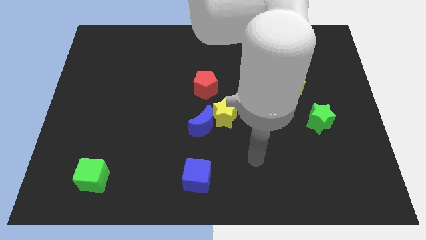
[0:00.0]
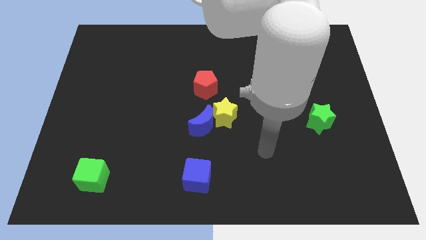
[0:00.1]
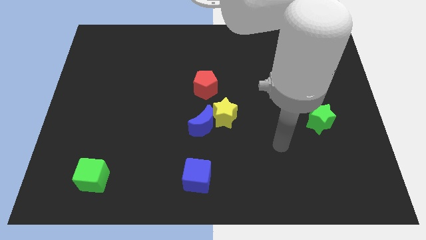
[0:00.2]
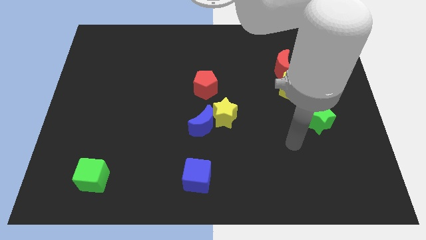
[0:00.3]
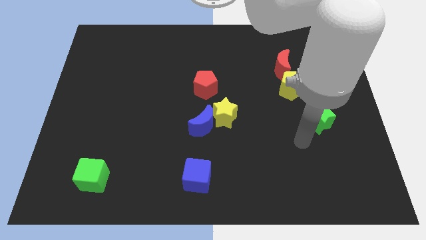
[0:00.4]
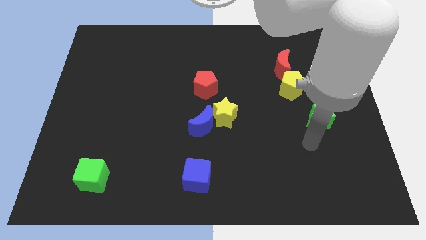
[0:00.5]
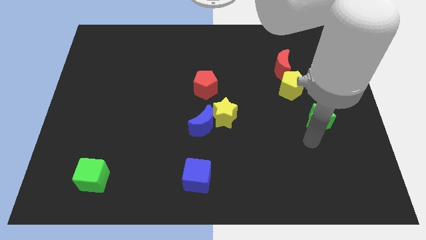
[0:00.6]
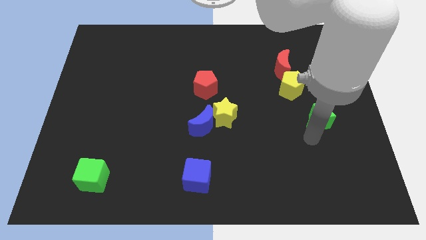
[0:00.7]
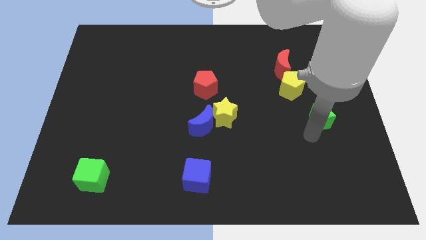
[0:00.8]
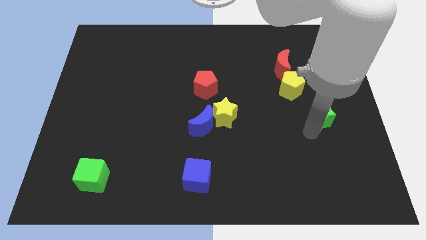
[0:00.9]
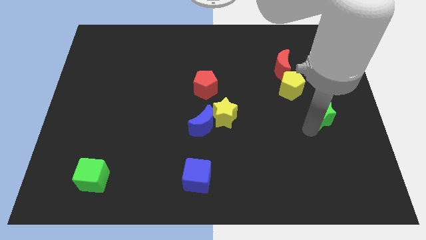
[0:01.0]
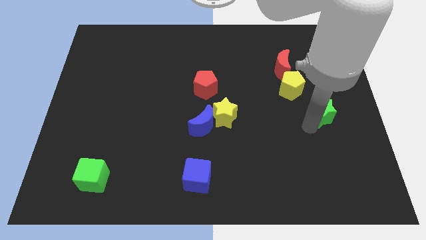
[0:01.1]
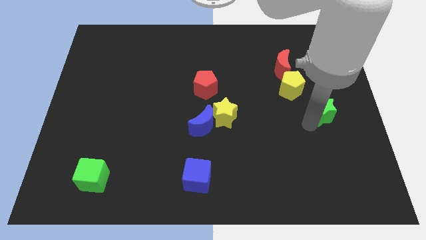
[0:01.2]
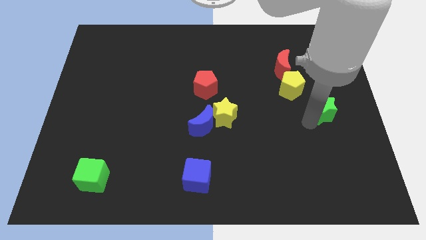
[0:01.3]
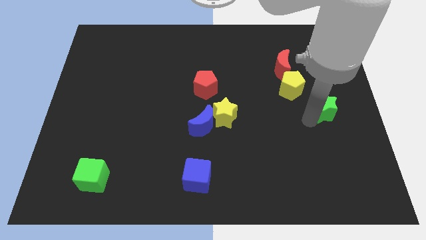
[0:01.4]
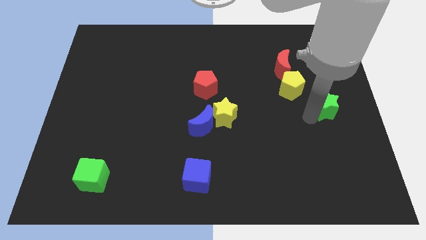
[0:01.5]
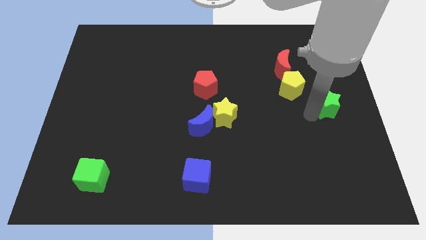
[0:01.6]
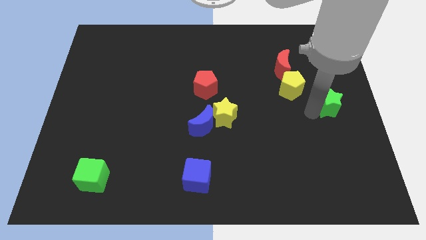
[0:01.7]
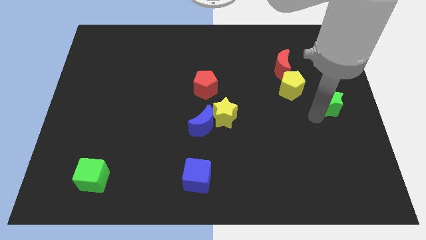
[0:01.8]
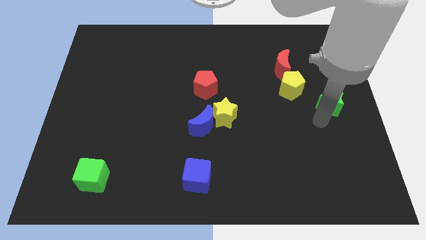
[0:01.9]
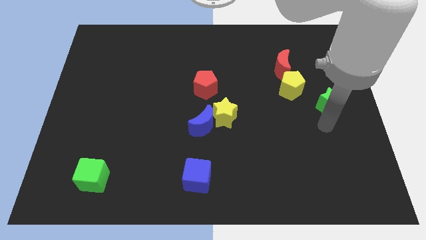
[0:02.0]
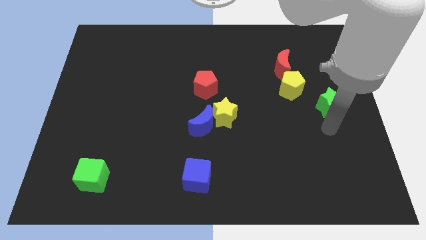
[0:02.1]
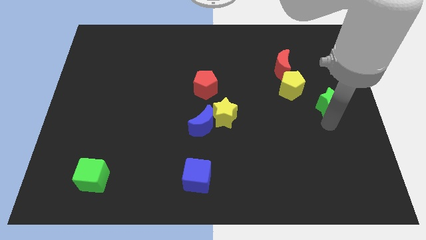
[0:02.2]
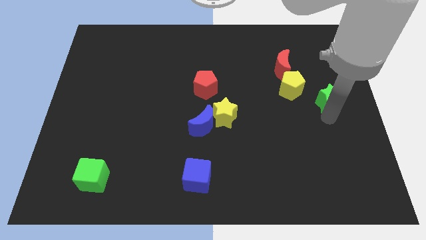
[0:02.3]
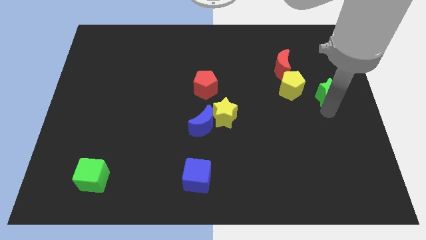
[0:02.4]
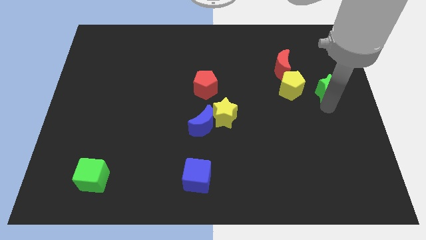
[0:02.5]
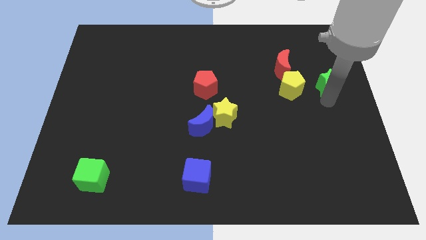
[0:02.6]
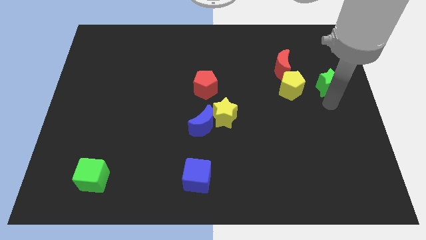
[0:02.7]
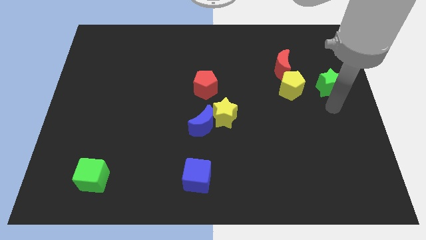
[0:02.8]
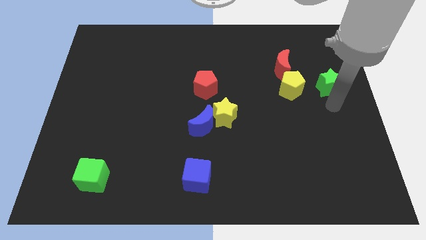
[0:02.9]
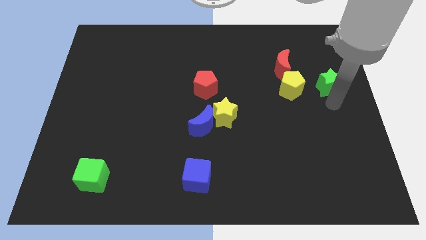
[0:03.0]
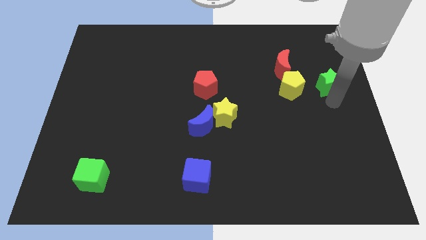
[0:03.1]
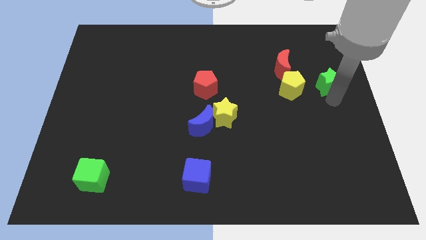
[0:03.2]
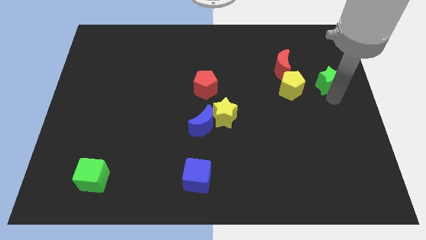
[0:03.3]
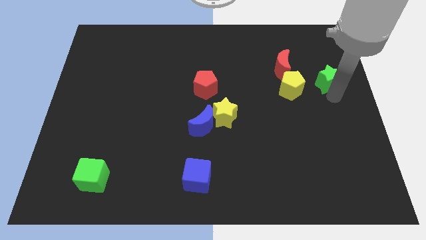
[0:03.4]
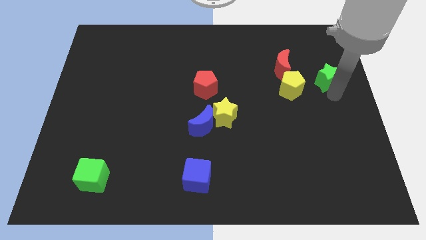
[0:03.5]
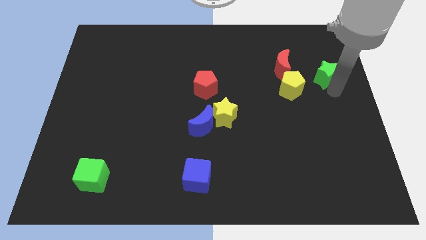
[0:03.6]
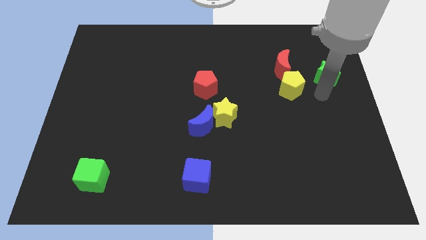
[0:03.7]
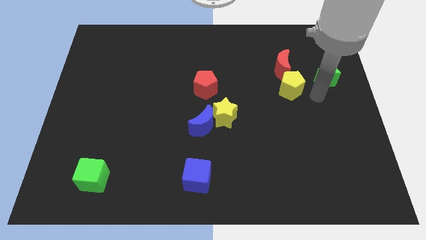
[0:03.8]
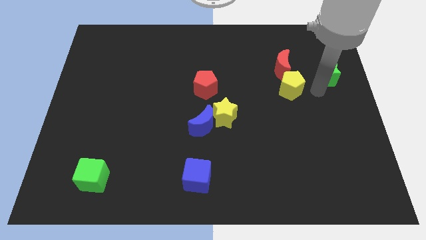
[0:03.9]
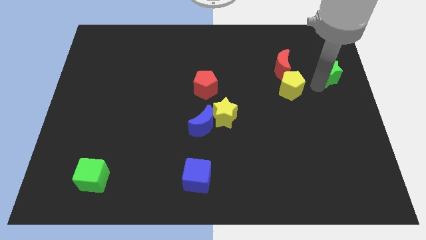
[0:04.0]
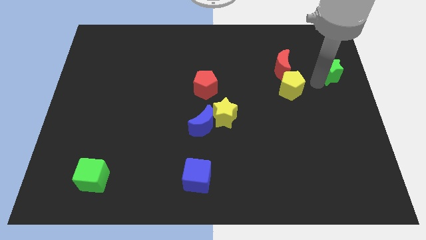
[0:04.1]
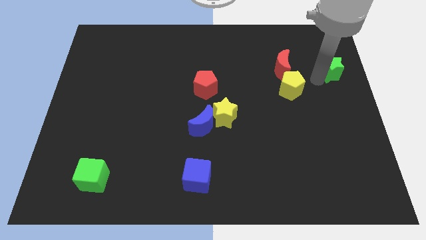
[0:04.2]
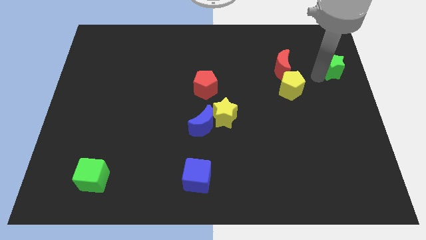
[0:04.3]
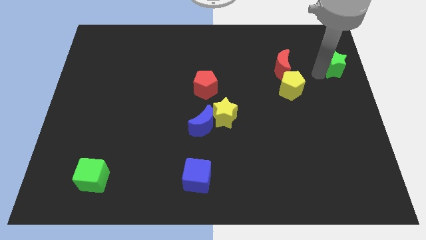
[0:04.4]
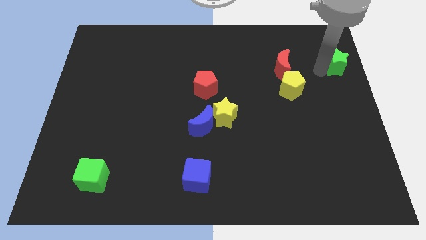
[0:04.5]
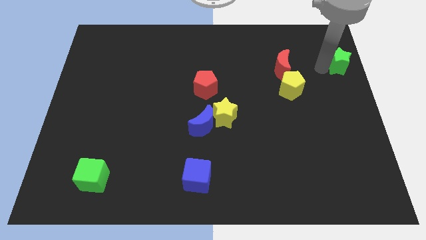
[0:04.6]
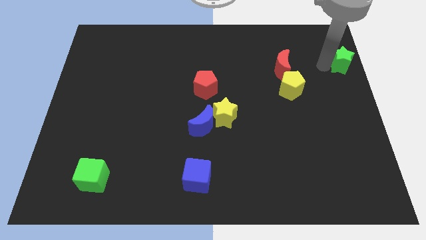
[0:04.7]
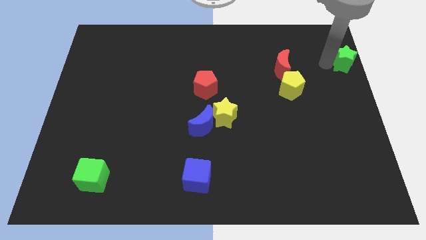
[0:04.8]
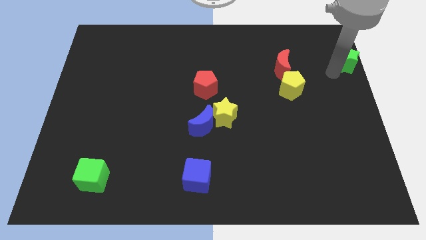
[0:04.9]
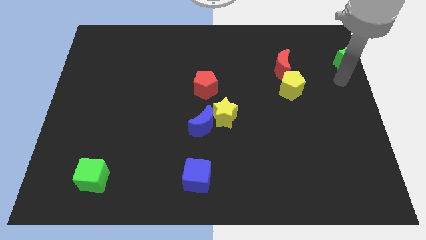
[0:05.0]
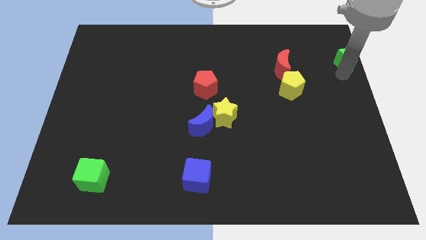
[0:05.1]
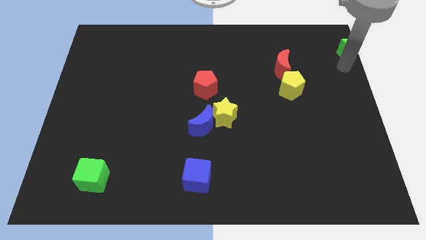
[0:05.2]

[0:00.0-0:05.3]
move the green star to the top right corner

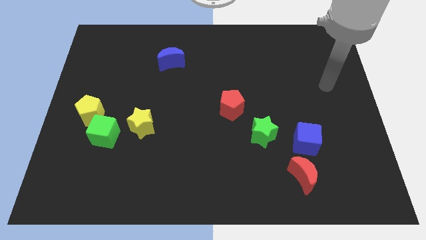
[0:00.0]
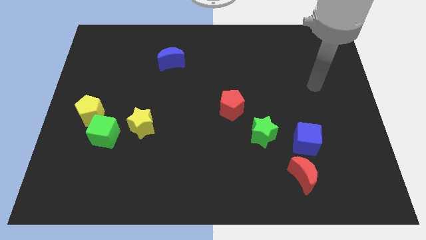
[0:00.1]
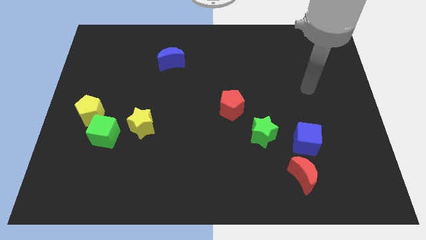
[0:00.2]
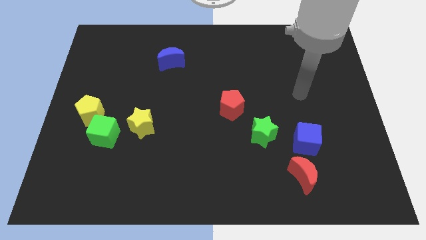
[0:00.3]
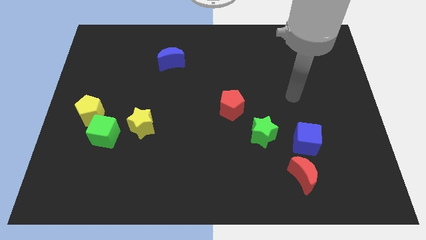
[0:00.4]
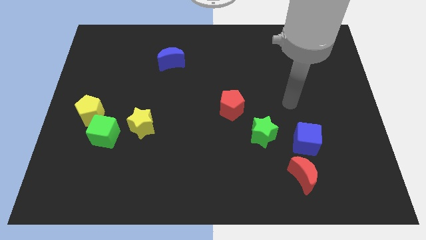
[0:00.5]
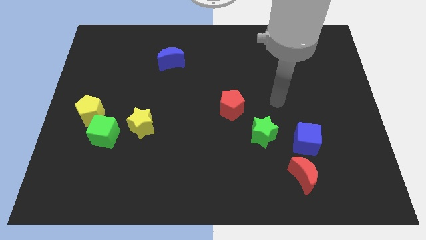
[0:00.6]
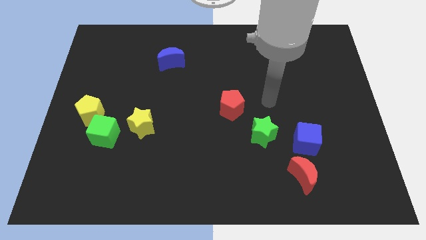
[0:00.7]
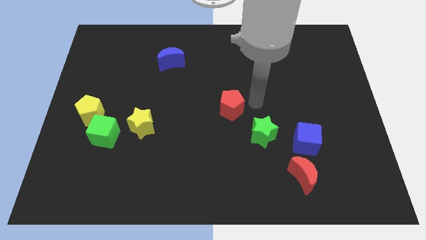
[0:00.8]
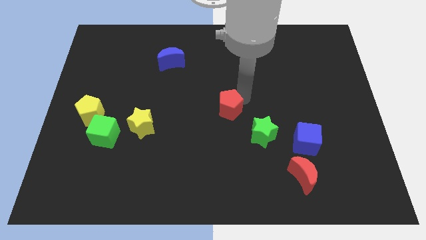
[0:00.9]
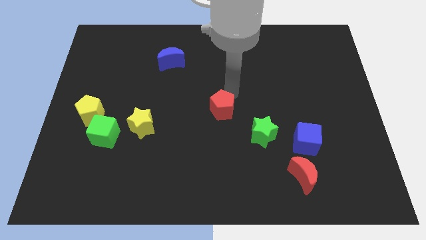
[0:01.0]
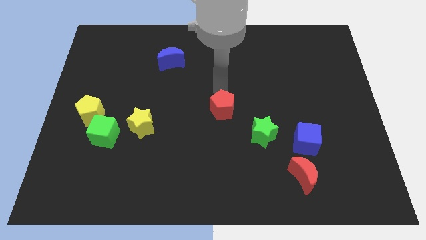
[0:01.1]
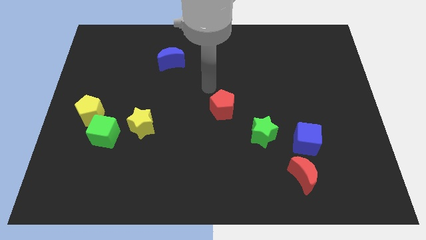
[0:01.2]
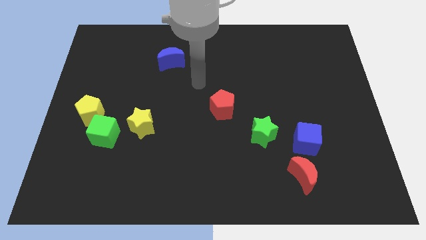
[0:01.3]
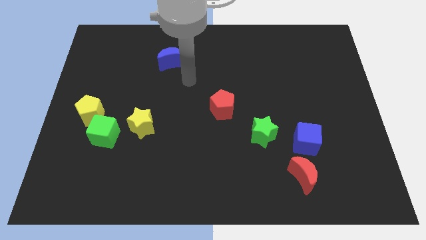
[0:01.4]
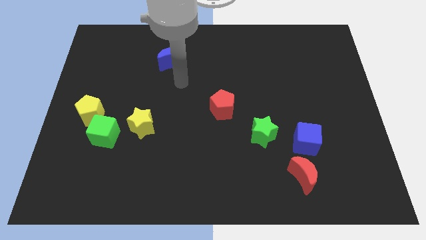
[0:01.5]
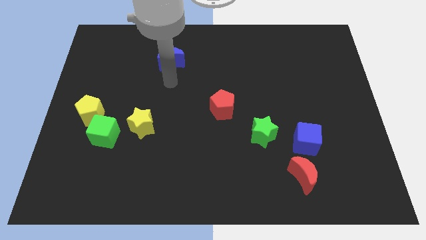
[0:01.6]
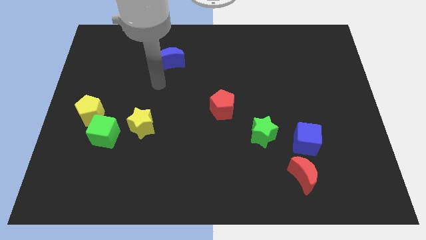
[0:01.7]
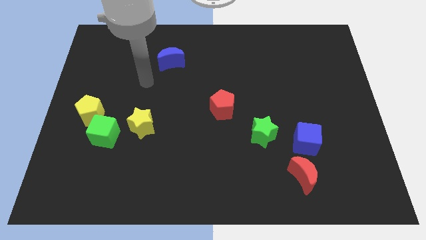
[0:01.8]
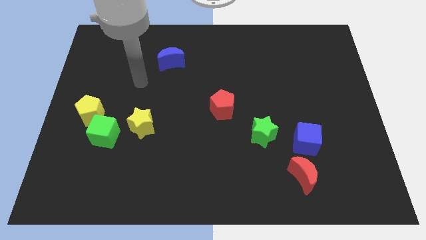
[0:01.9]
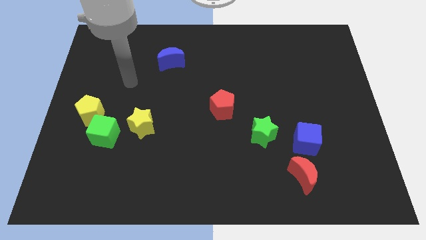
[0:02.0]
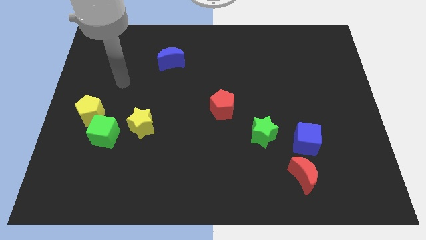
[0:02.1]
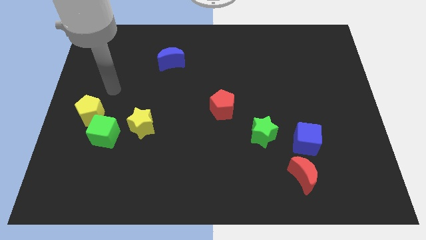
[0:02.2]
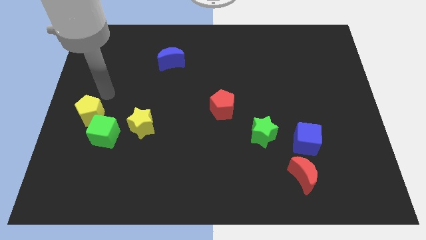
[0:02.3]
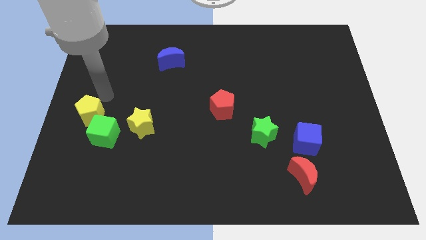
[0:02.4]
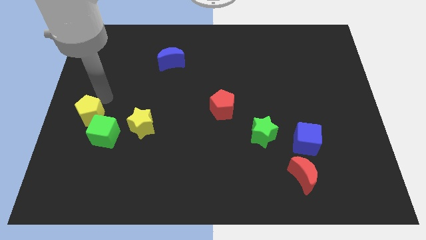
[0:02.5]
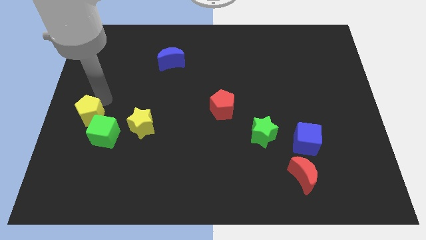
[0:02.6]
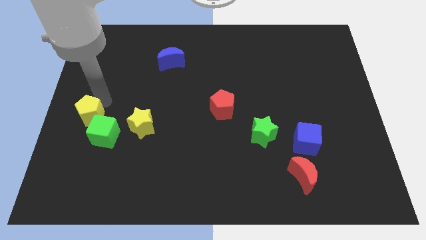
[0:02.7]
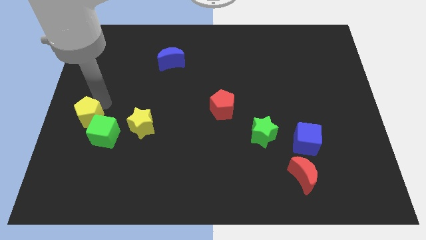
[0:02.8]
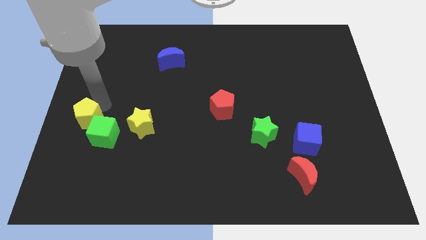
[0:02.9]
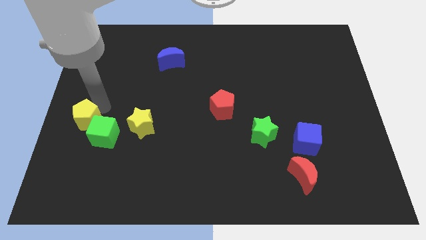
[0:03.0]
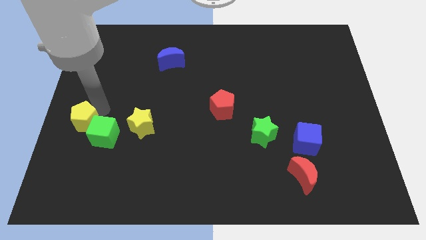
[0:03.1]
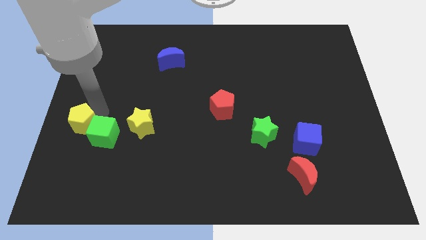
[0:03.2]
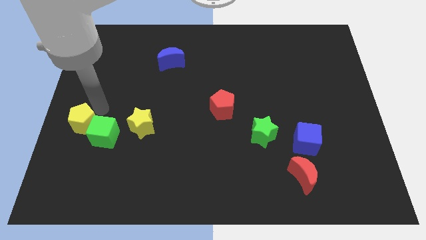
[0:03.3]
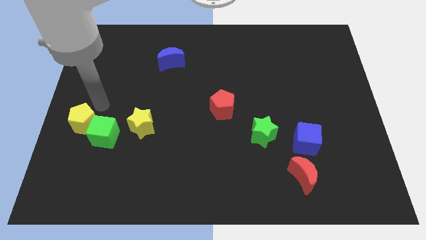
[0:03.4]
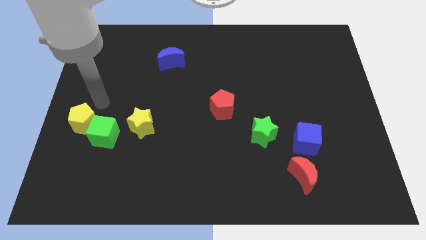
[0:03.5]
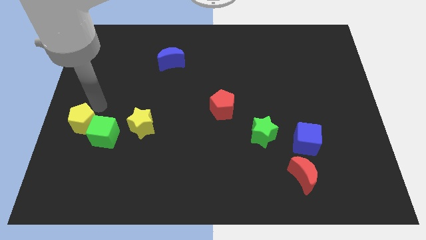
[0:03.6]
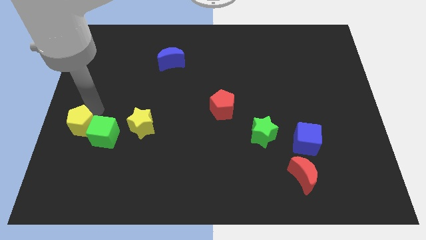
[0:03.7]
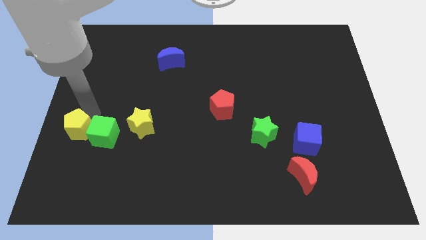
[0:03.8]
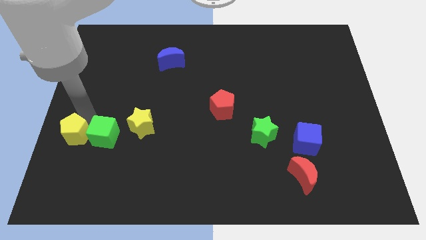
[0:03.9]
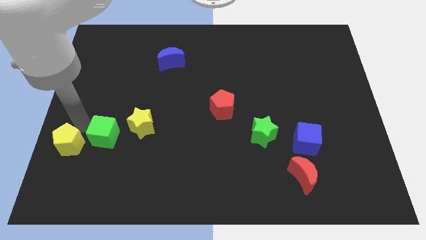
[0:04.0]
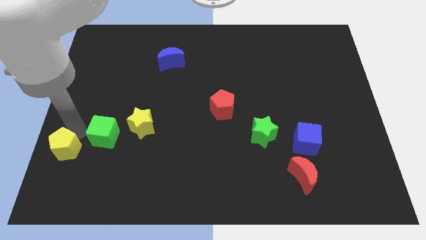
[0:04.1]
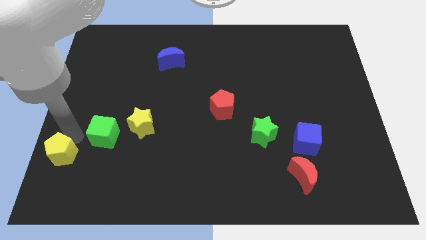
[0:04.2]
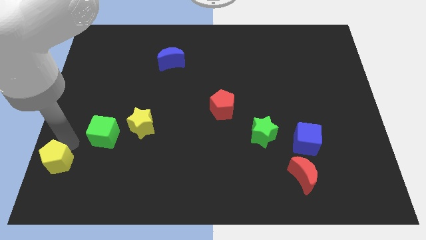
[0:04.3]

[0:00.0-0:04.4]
slide the yellow pentagon to the bottom left corner
